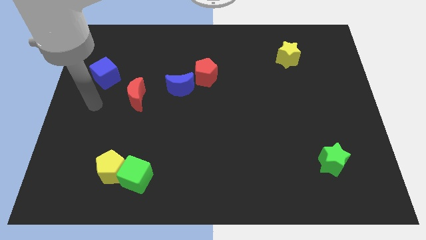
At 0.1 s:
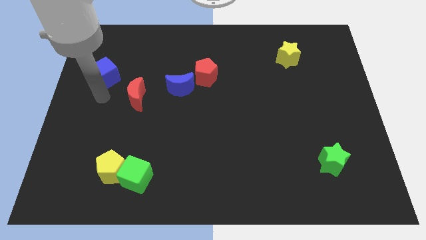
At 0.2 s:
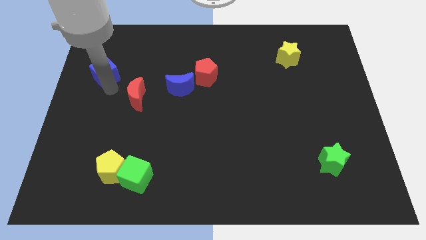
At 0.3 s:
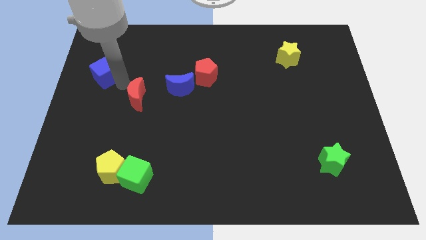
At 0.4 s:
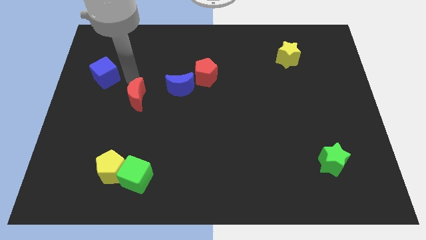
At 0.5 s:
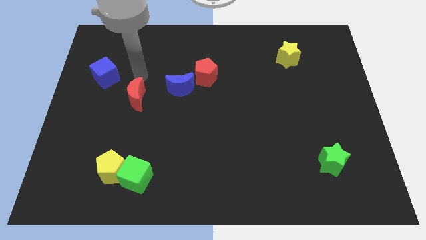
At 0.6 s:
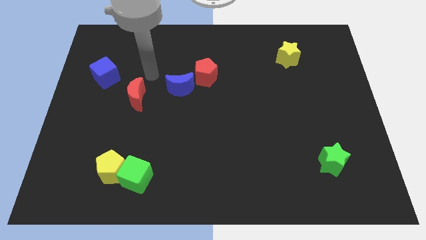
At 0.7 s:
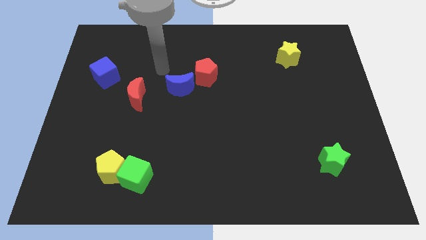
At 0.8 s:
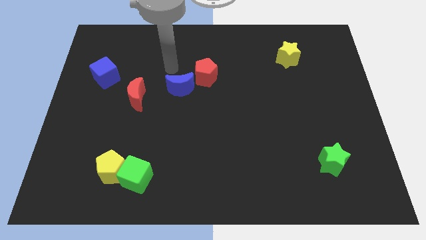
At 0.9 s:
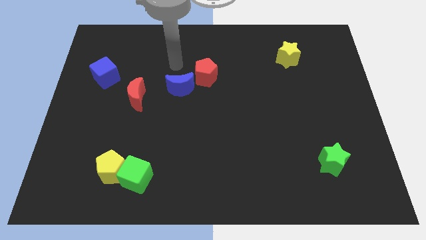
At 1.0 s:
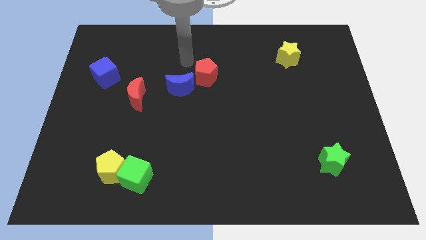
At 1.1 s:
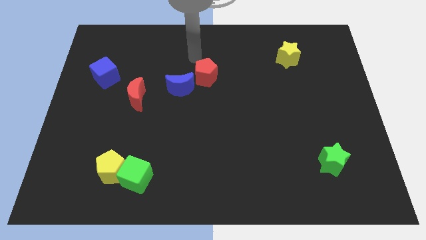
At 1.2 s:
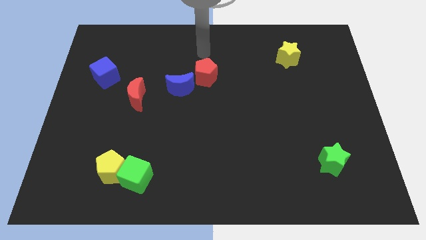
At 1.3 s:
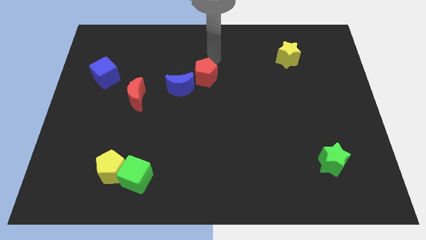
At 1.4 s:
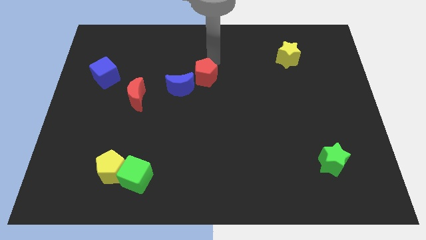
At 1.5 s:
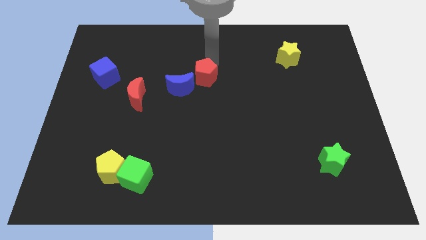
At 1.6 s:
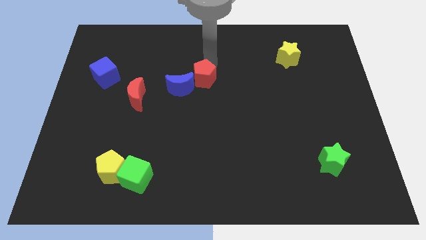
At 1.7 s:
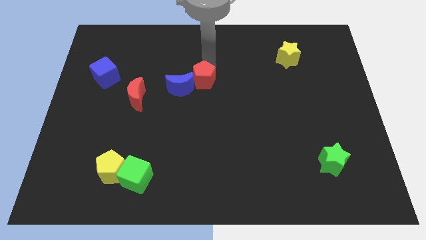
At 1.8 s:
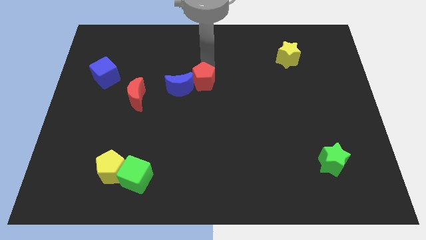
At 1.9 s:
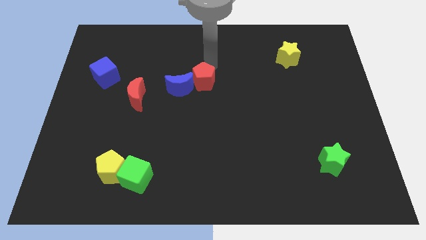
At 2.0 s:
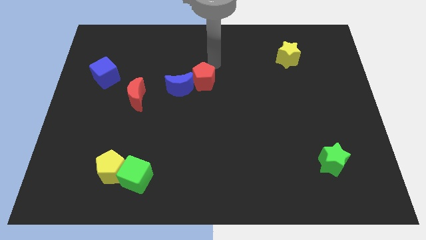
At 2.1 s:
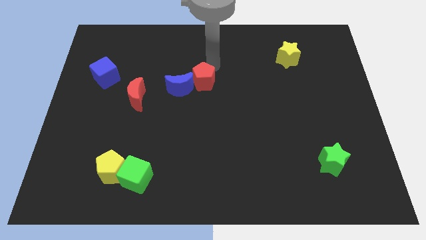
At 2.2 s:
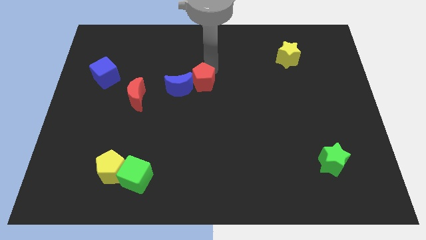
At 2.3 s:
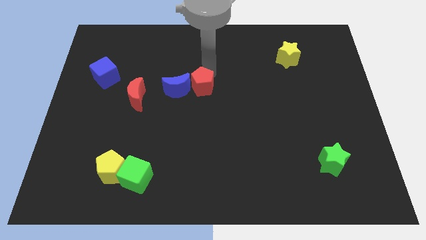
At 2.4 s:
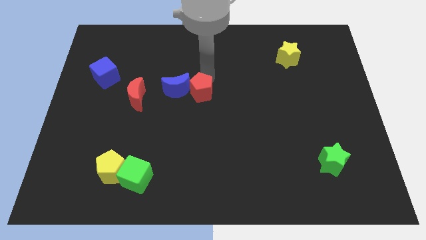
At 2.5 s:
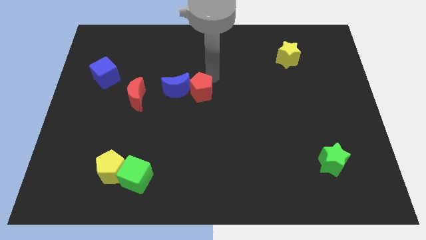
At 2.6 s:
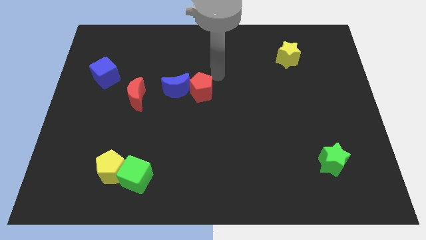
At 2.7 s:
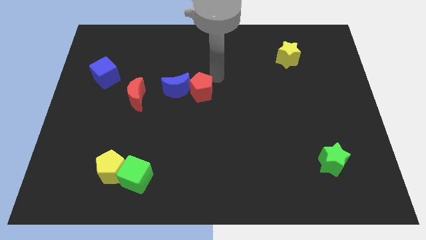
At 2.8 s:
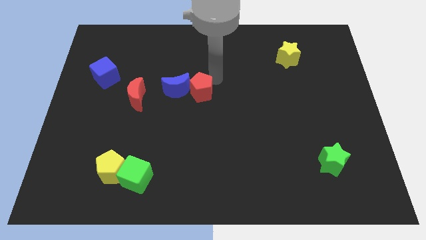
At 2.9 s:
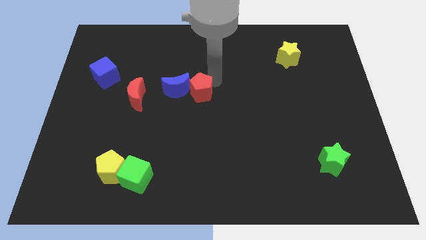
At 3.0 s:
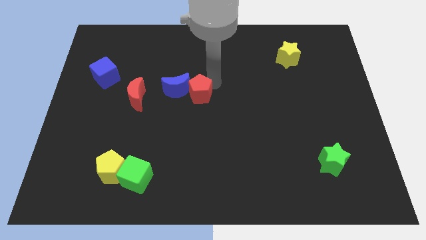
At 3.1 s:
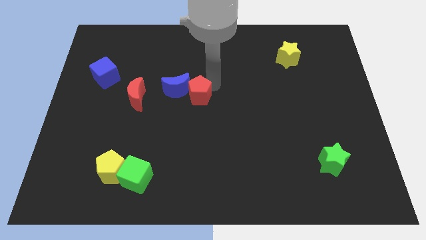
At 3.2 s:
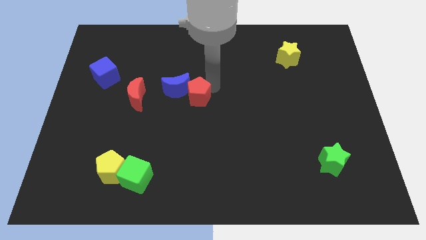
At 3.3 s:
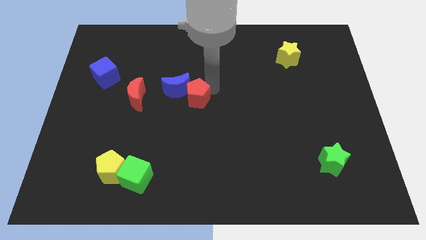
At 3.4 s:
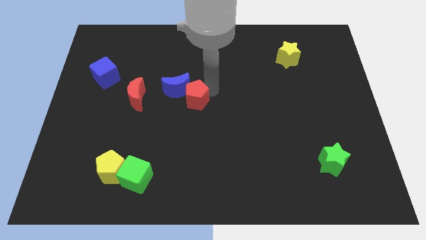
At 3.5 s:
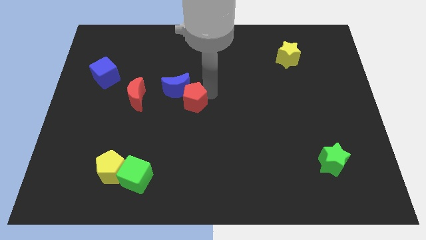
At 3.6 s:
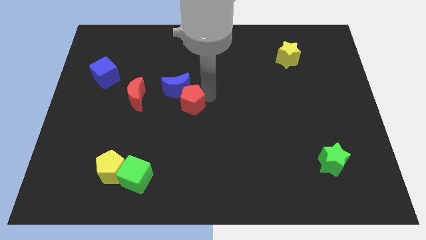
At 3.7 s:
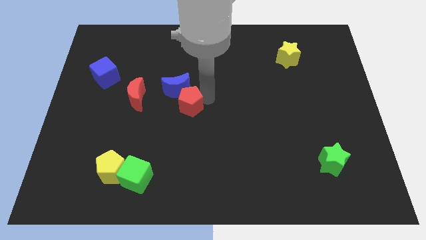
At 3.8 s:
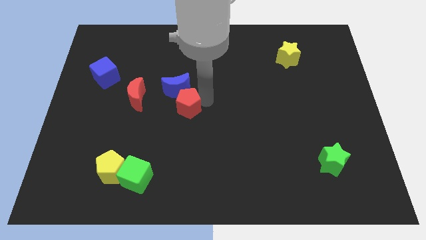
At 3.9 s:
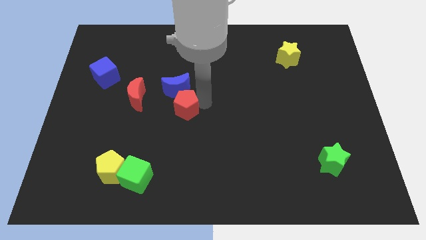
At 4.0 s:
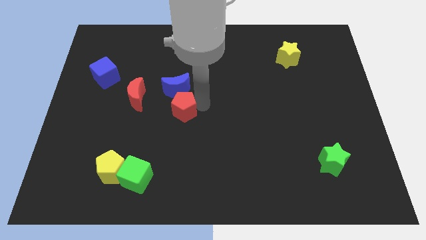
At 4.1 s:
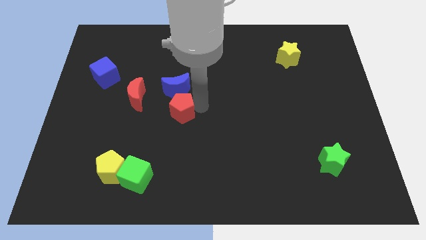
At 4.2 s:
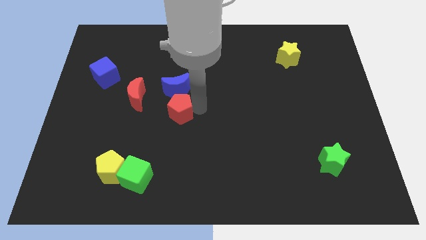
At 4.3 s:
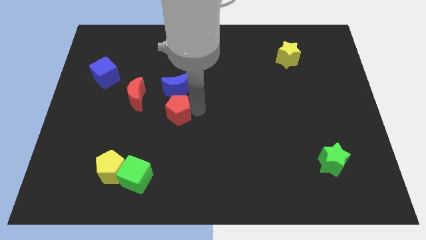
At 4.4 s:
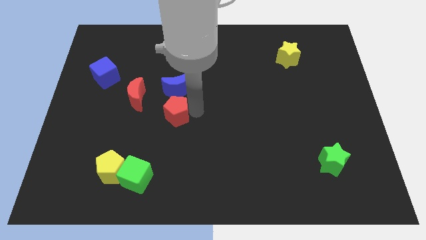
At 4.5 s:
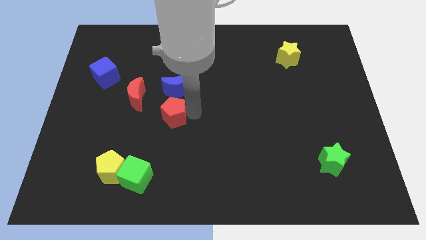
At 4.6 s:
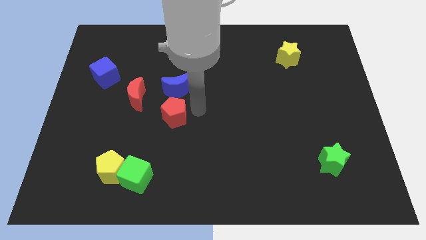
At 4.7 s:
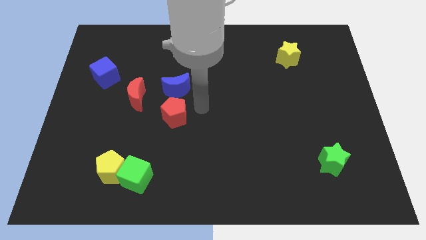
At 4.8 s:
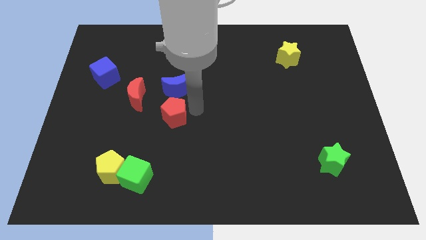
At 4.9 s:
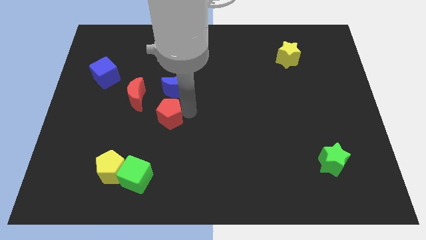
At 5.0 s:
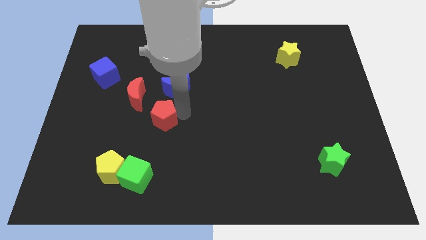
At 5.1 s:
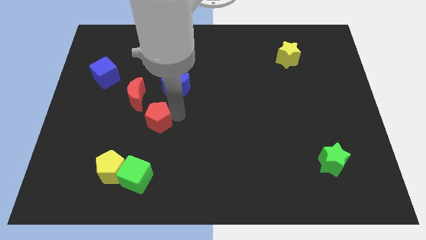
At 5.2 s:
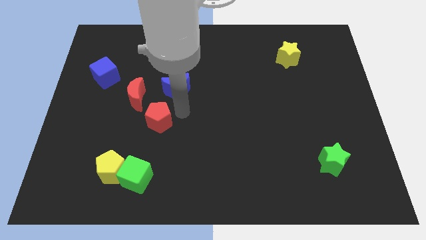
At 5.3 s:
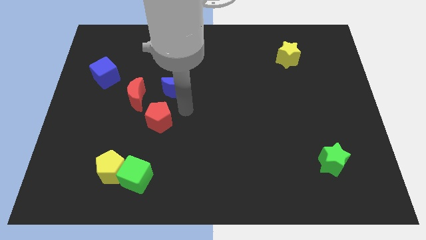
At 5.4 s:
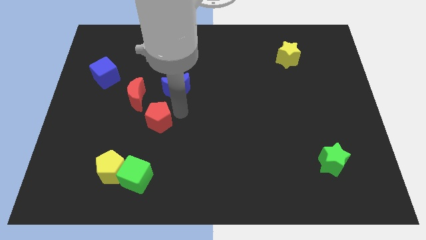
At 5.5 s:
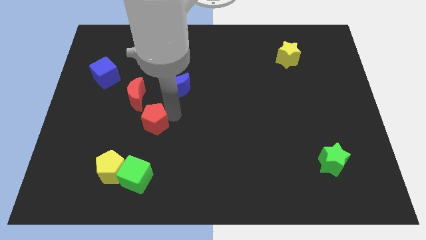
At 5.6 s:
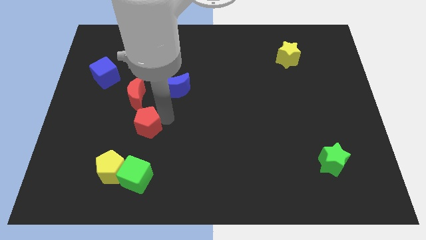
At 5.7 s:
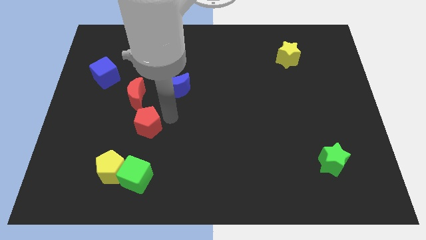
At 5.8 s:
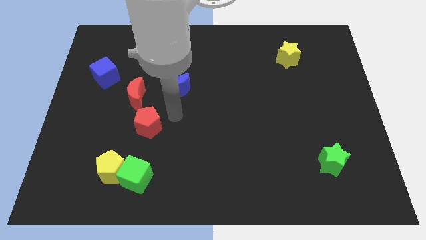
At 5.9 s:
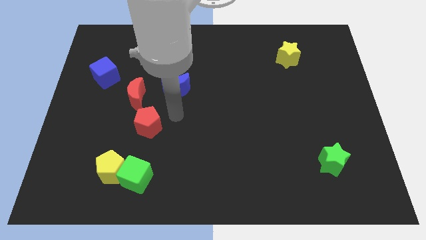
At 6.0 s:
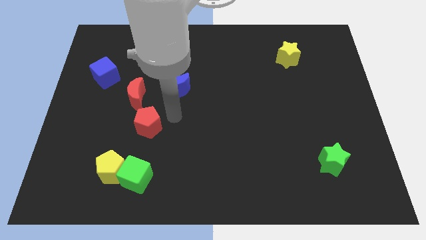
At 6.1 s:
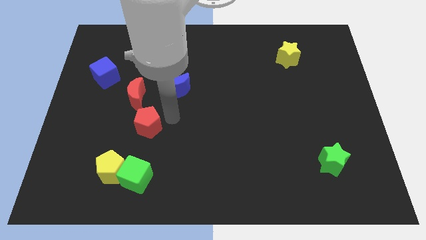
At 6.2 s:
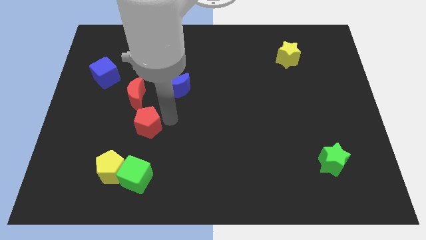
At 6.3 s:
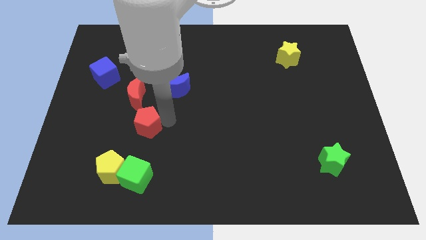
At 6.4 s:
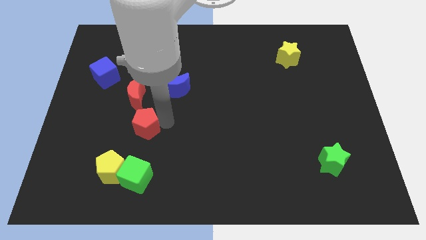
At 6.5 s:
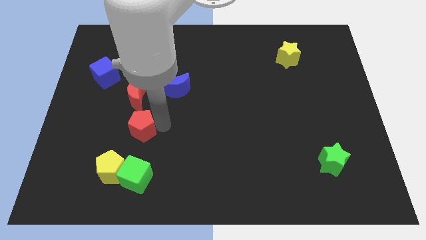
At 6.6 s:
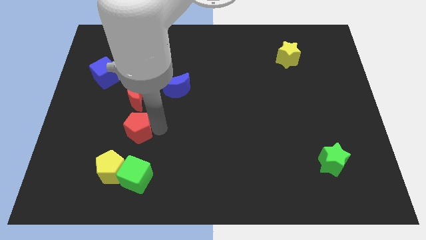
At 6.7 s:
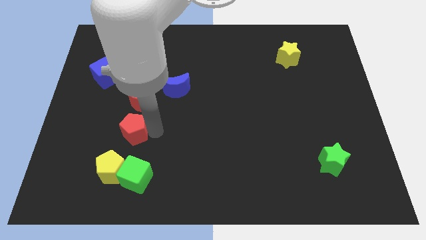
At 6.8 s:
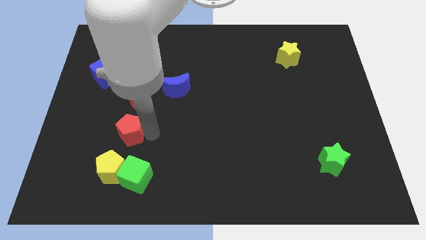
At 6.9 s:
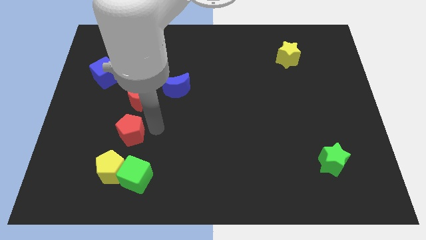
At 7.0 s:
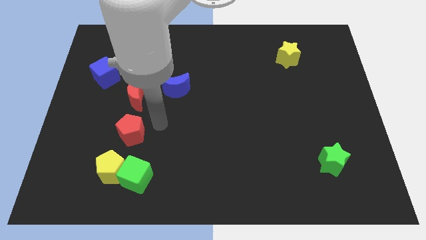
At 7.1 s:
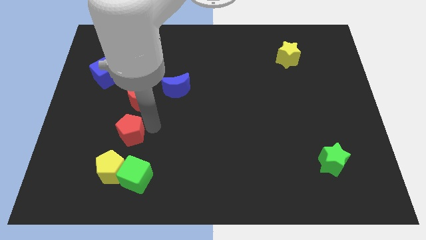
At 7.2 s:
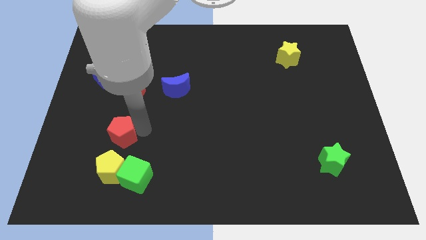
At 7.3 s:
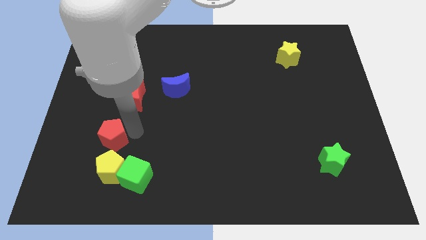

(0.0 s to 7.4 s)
put the red pentagon diagonally up and to the left of the yellow pentagon
